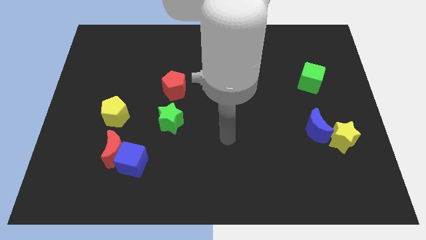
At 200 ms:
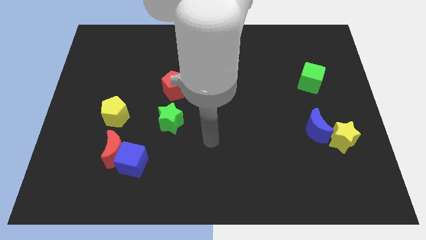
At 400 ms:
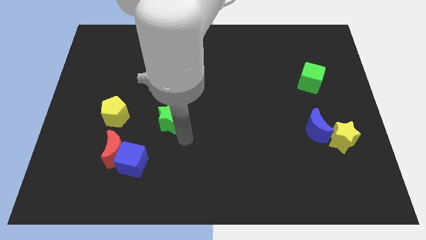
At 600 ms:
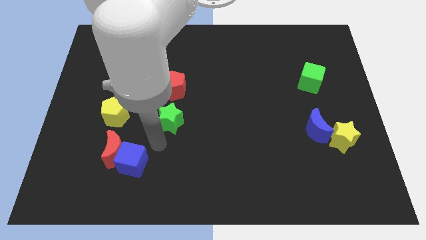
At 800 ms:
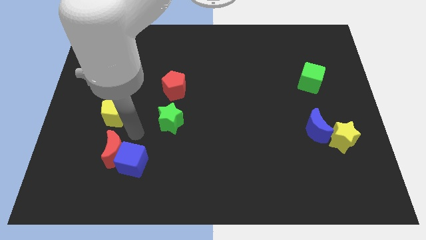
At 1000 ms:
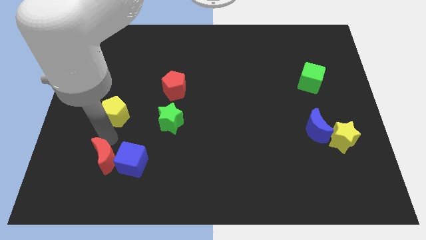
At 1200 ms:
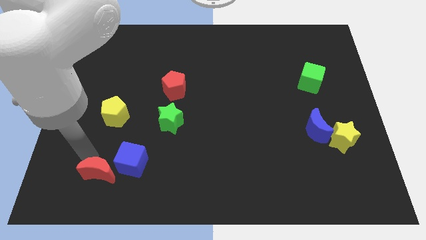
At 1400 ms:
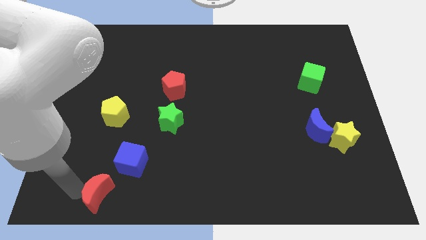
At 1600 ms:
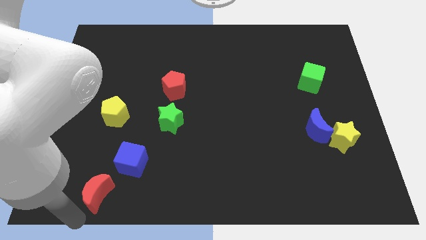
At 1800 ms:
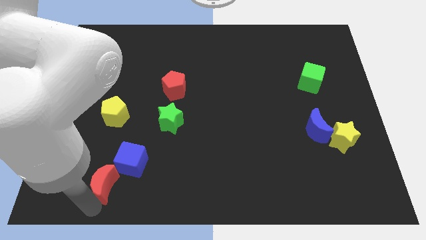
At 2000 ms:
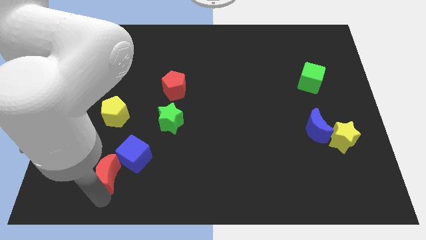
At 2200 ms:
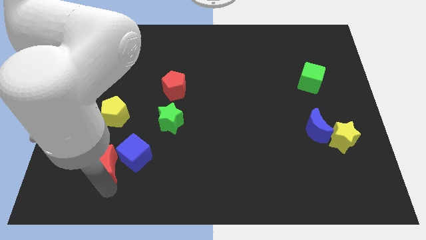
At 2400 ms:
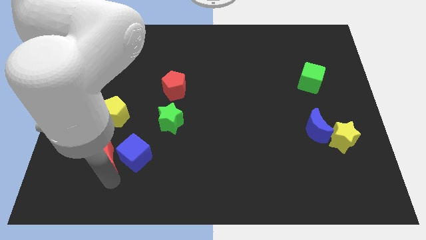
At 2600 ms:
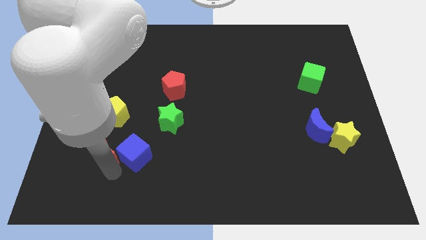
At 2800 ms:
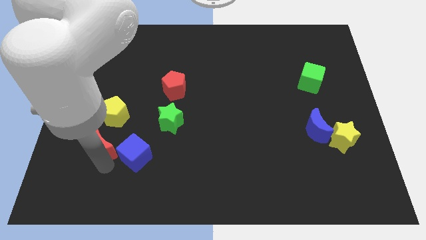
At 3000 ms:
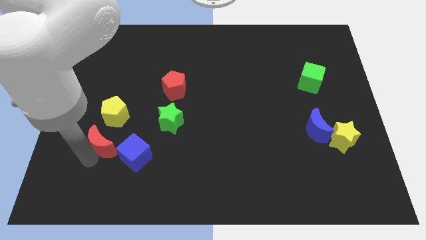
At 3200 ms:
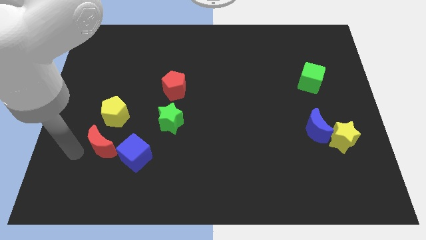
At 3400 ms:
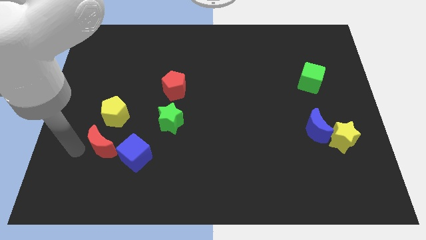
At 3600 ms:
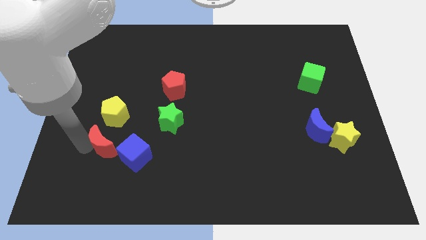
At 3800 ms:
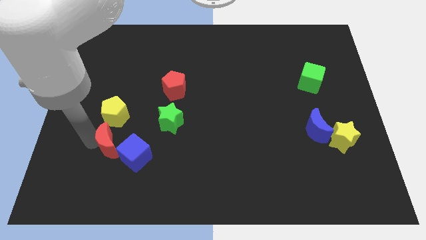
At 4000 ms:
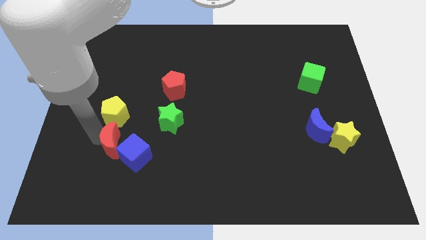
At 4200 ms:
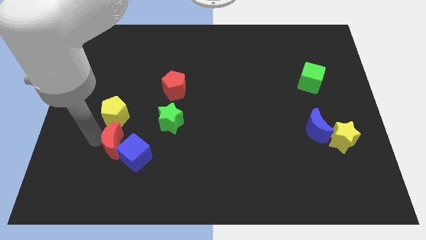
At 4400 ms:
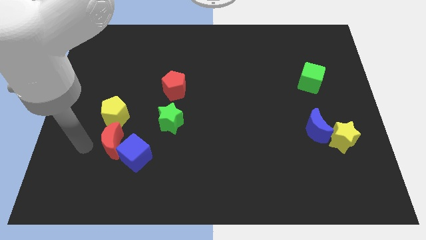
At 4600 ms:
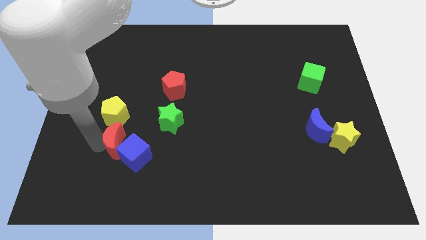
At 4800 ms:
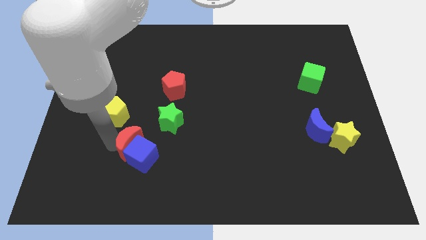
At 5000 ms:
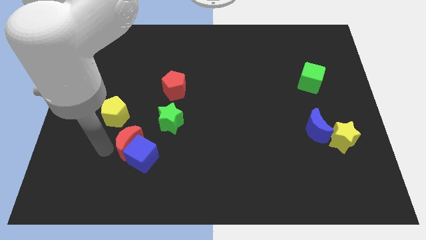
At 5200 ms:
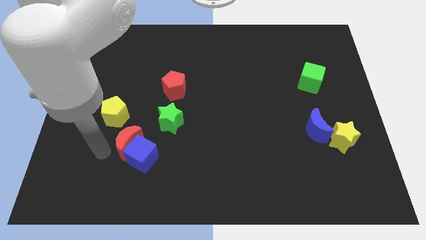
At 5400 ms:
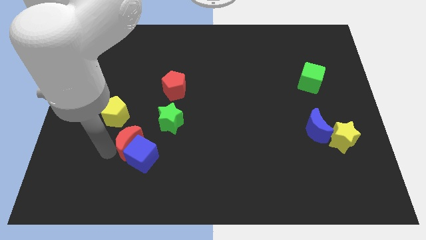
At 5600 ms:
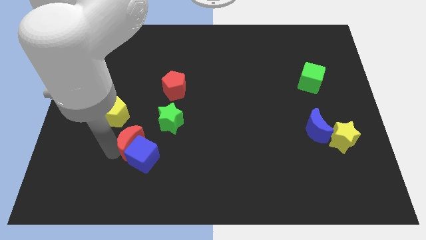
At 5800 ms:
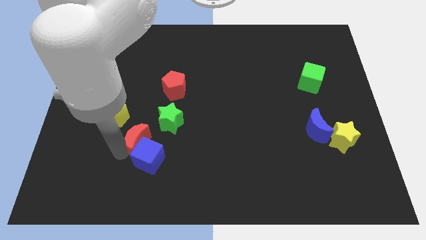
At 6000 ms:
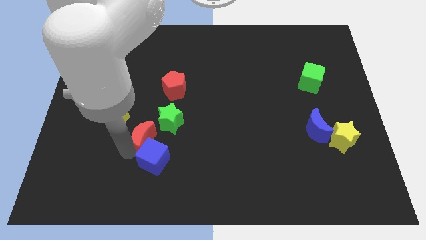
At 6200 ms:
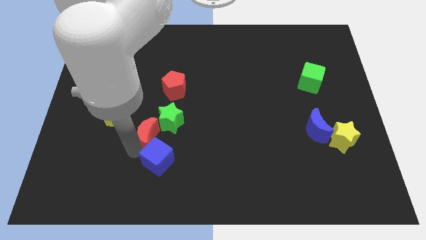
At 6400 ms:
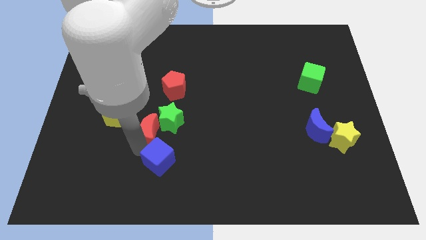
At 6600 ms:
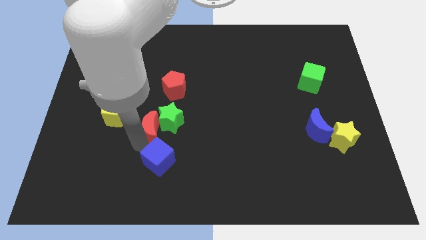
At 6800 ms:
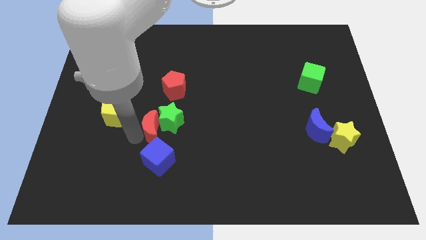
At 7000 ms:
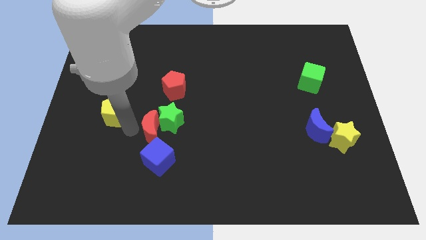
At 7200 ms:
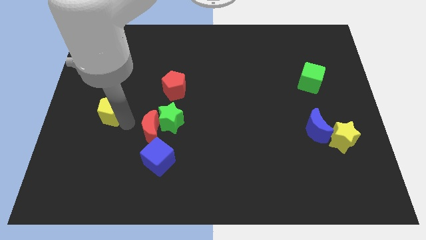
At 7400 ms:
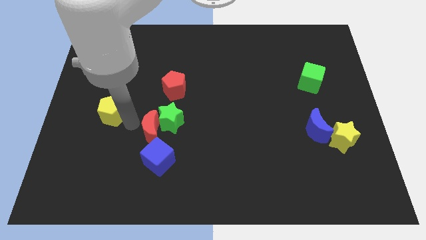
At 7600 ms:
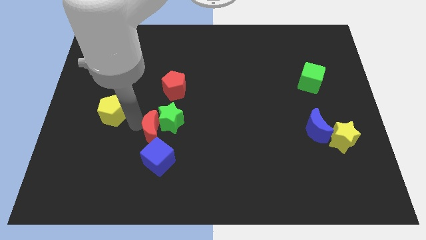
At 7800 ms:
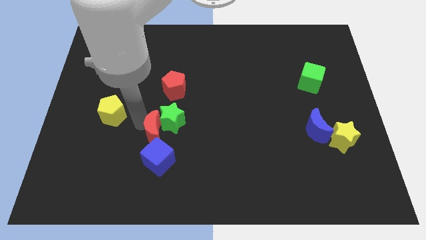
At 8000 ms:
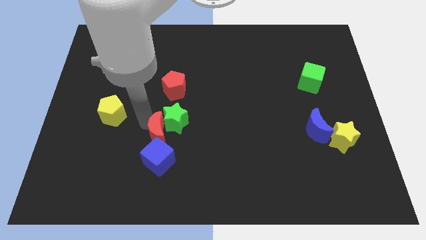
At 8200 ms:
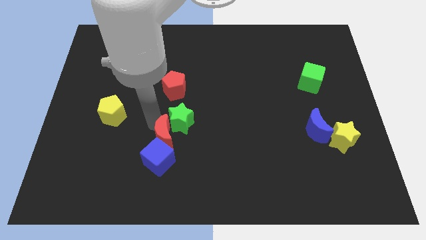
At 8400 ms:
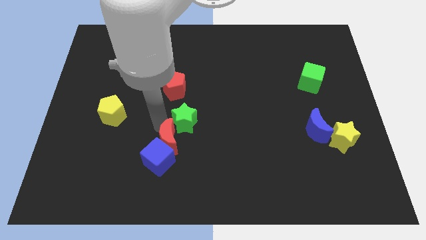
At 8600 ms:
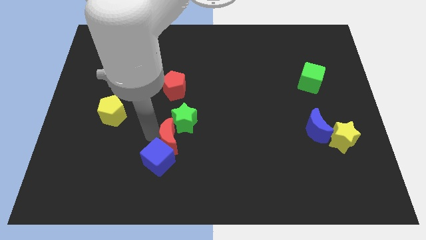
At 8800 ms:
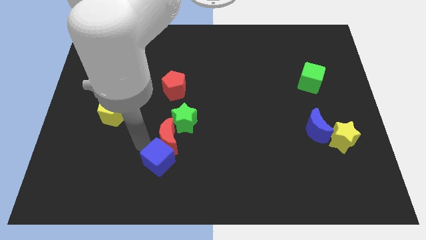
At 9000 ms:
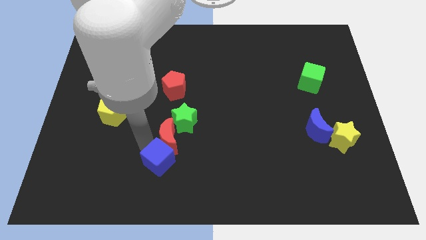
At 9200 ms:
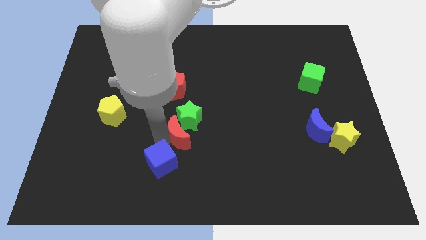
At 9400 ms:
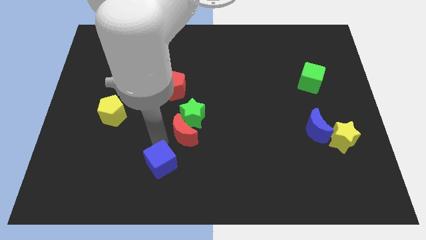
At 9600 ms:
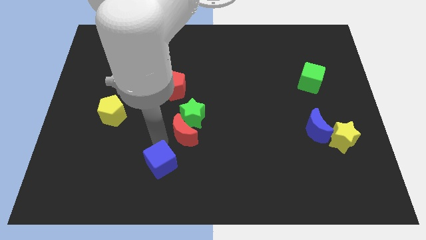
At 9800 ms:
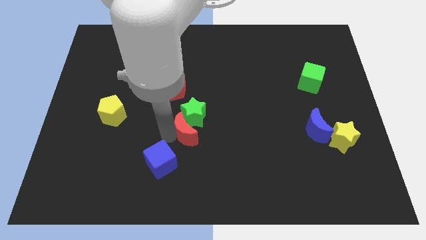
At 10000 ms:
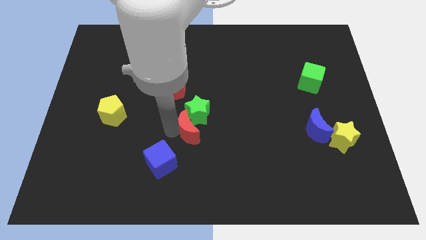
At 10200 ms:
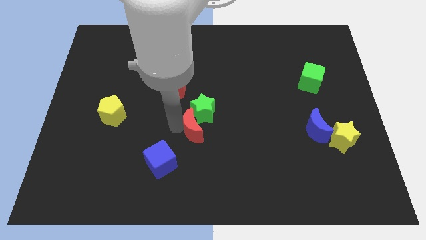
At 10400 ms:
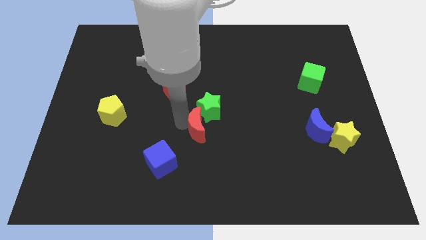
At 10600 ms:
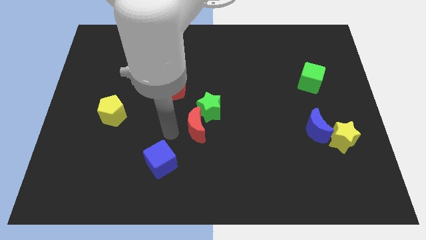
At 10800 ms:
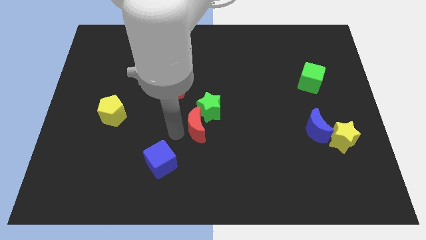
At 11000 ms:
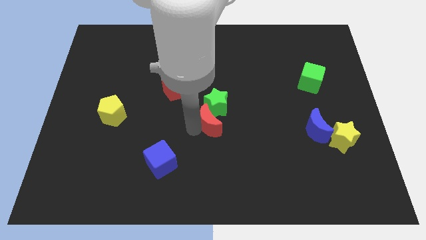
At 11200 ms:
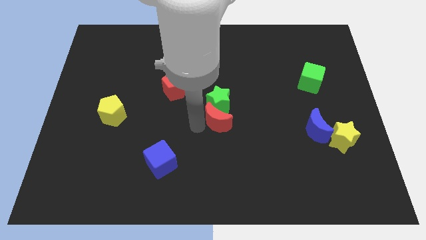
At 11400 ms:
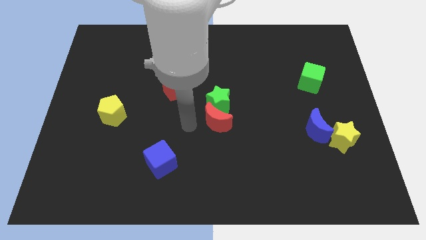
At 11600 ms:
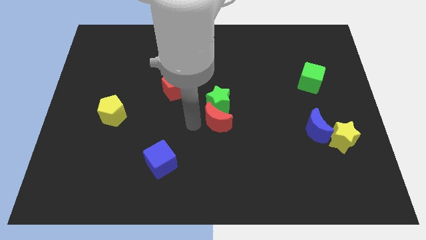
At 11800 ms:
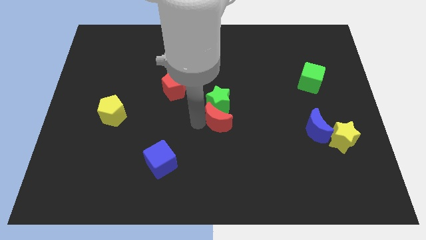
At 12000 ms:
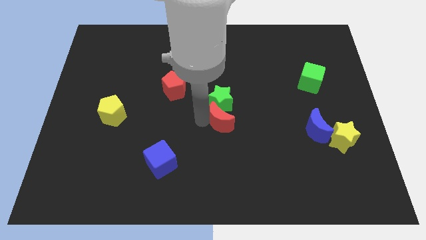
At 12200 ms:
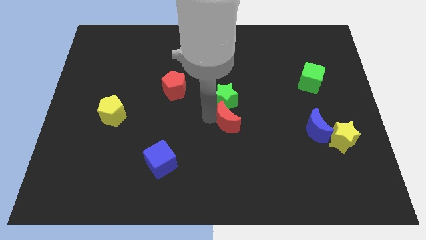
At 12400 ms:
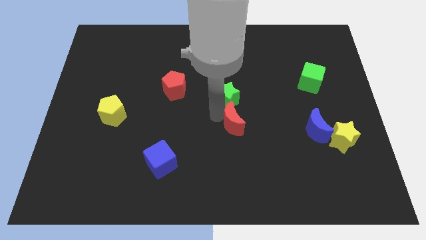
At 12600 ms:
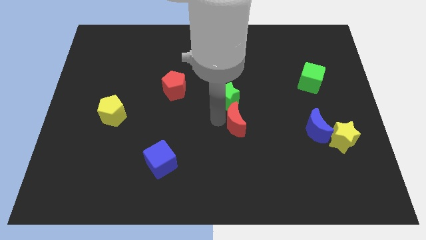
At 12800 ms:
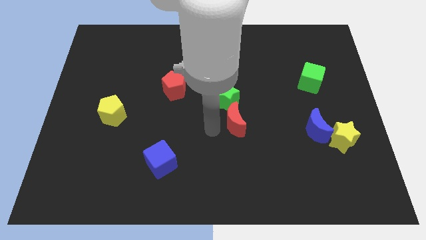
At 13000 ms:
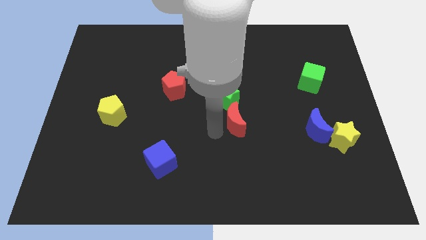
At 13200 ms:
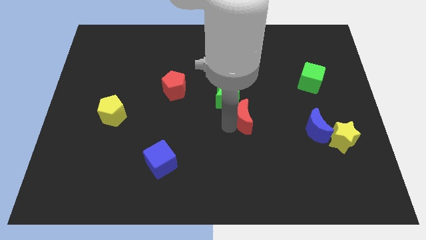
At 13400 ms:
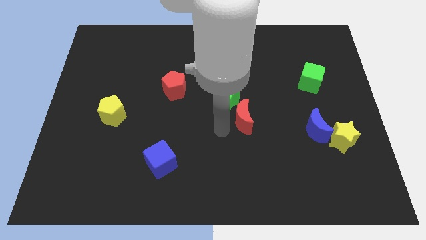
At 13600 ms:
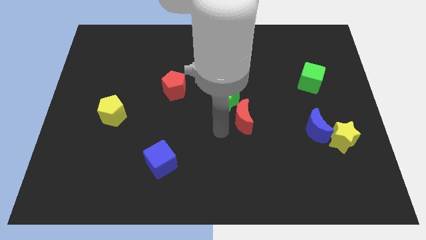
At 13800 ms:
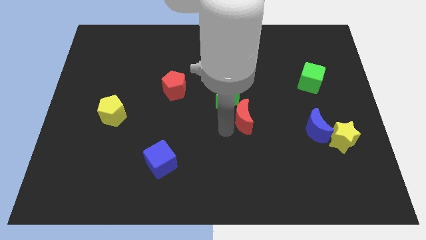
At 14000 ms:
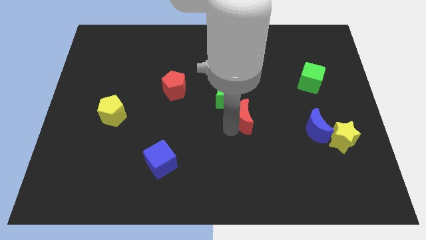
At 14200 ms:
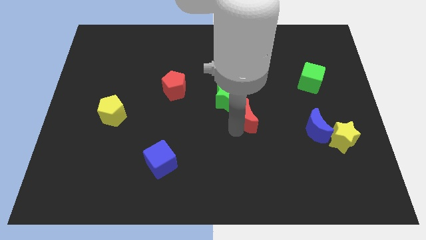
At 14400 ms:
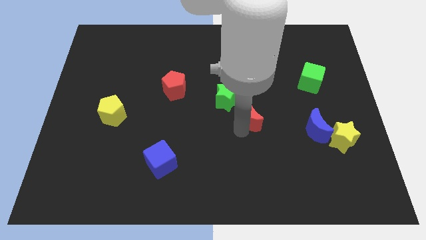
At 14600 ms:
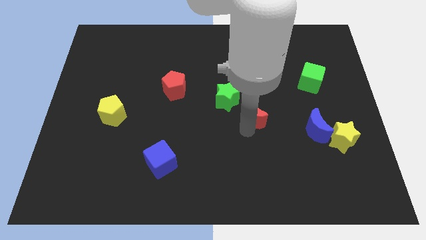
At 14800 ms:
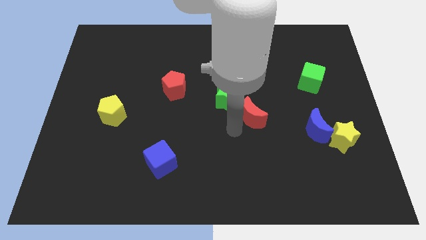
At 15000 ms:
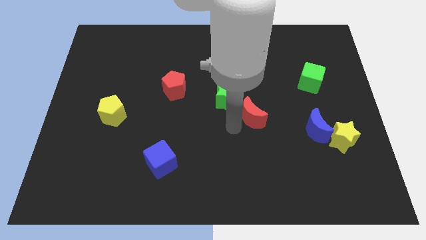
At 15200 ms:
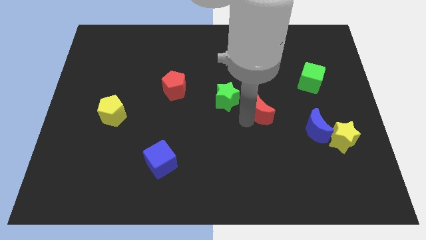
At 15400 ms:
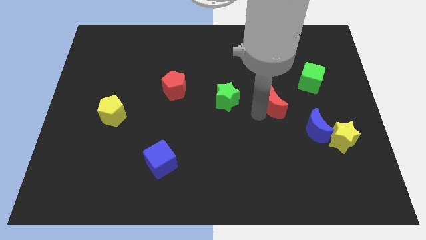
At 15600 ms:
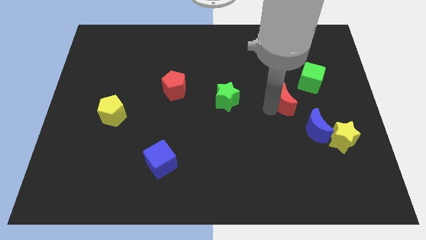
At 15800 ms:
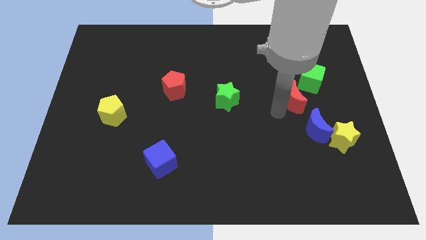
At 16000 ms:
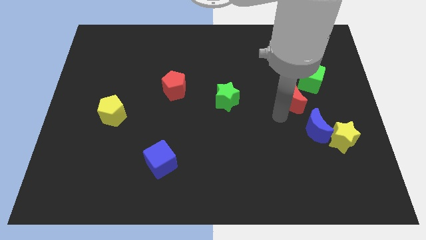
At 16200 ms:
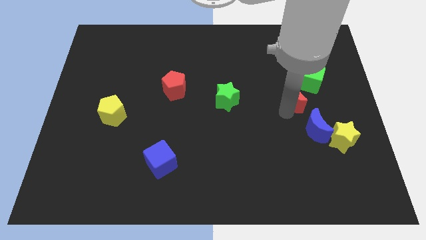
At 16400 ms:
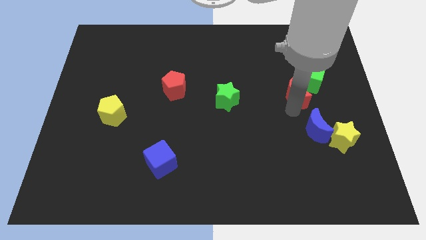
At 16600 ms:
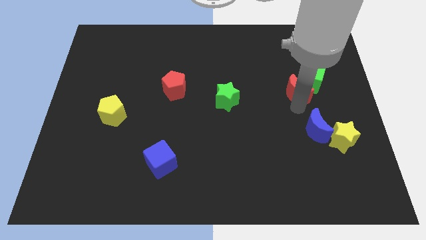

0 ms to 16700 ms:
slide the red moon towards the green cube
